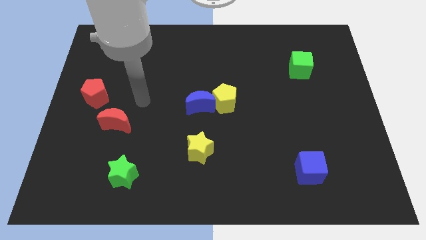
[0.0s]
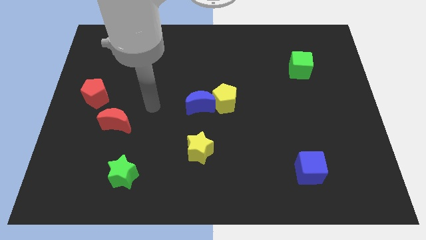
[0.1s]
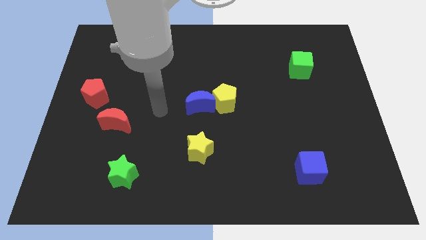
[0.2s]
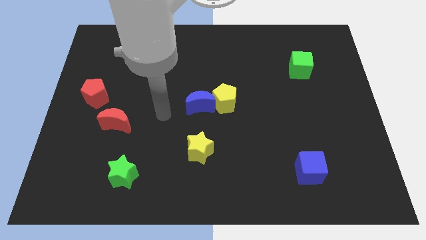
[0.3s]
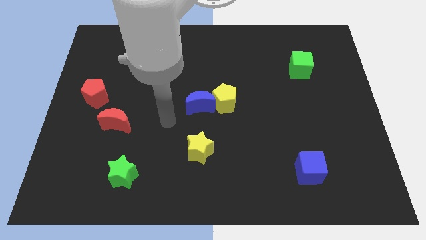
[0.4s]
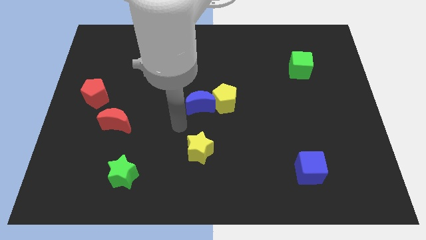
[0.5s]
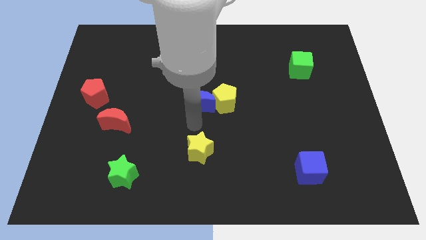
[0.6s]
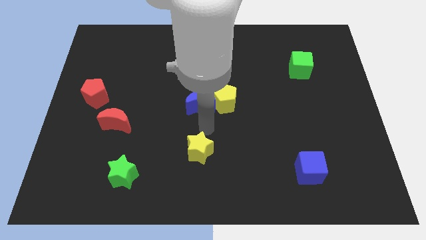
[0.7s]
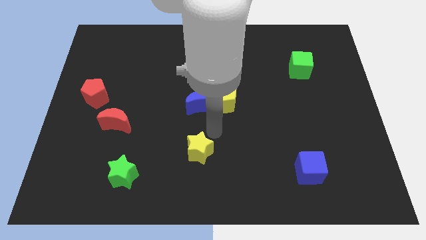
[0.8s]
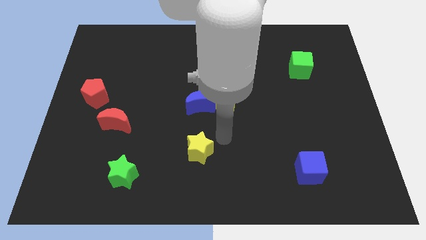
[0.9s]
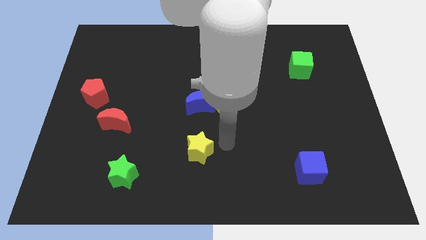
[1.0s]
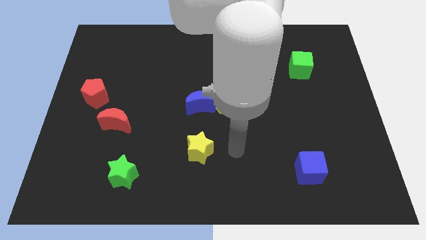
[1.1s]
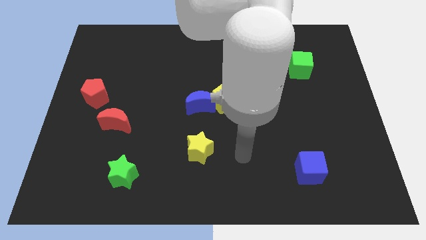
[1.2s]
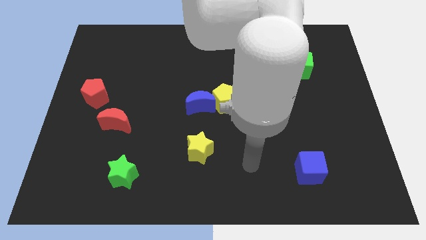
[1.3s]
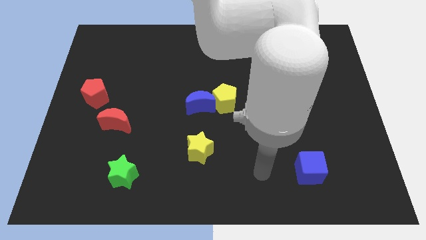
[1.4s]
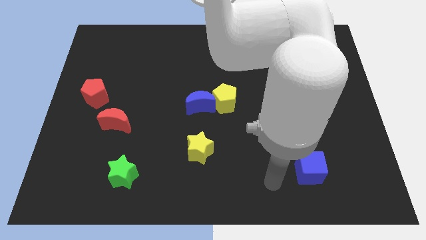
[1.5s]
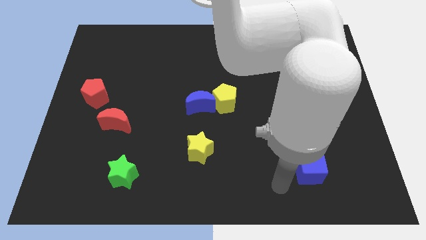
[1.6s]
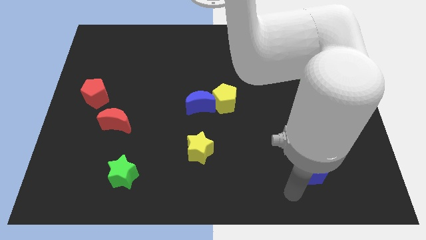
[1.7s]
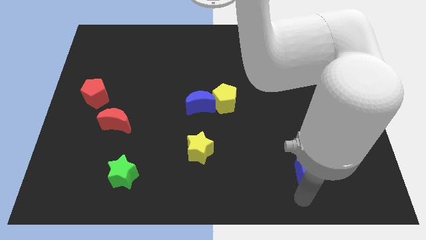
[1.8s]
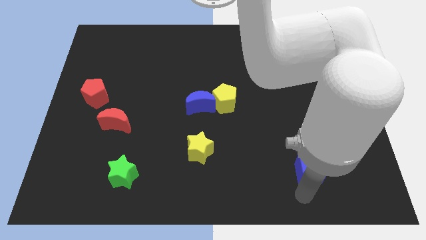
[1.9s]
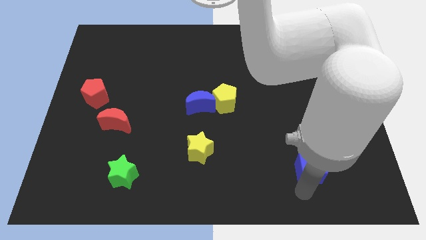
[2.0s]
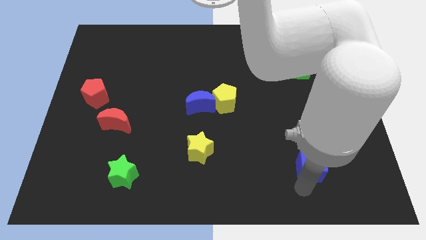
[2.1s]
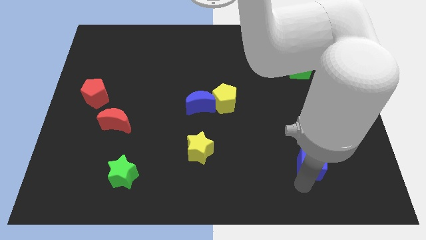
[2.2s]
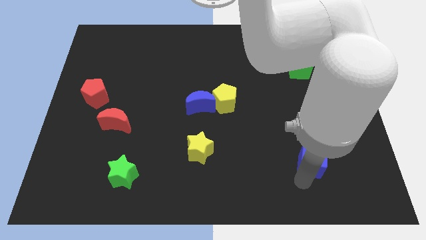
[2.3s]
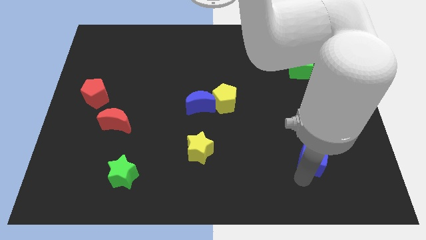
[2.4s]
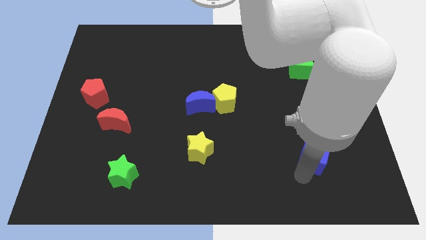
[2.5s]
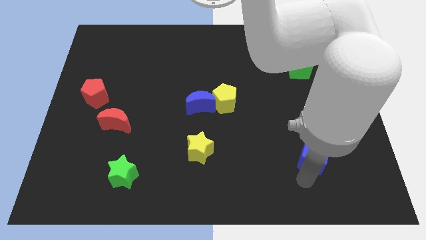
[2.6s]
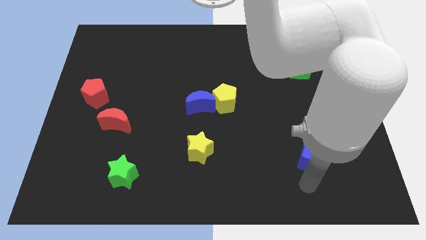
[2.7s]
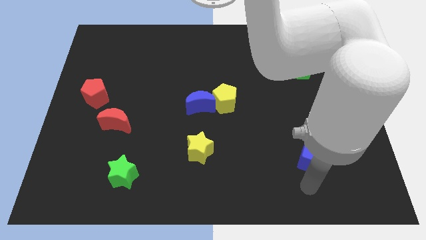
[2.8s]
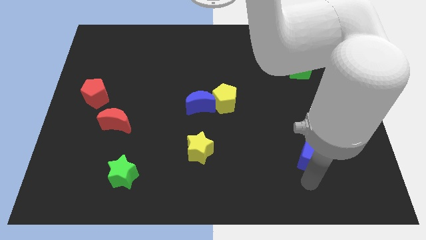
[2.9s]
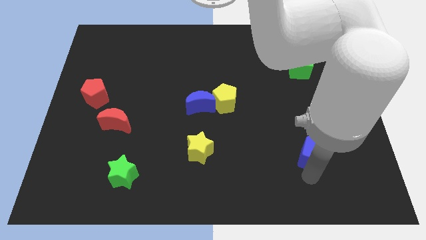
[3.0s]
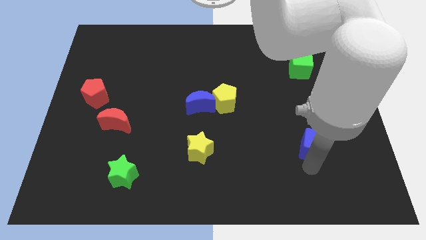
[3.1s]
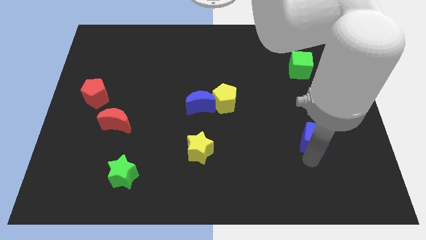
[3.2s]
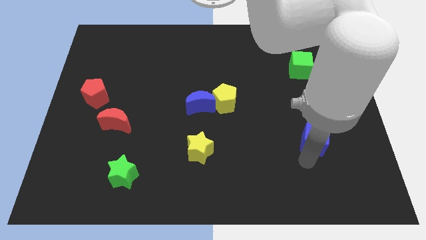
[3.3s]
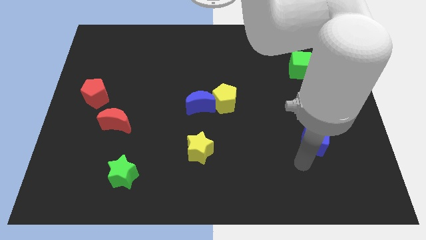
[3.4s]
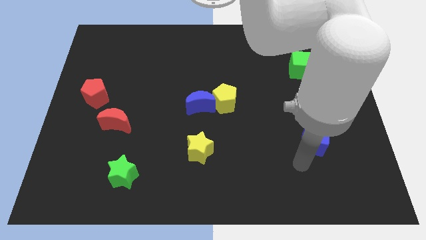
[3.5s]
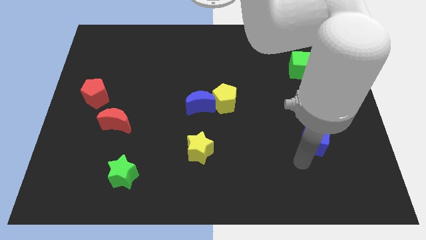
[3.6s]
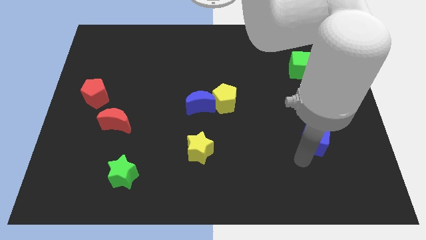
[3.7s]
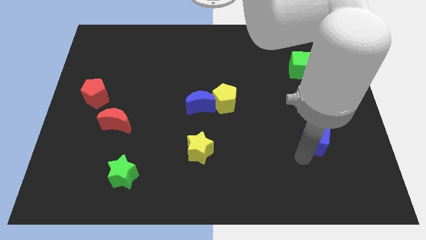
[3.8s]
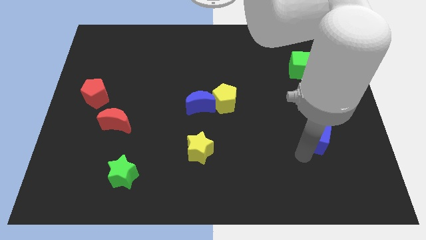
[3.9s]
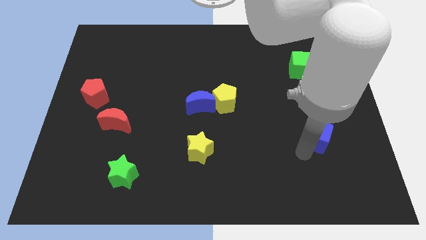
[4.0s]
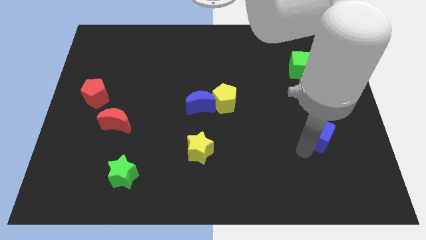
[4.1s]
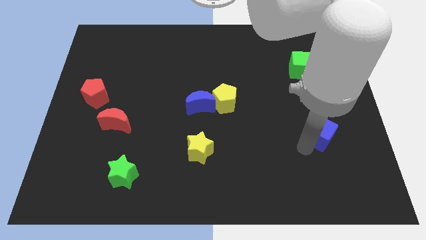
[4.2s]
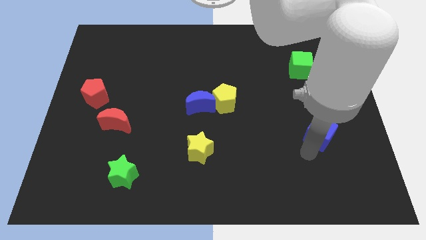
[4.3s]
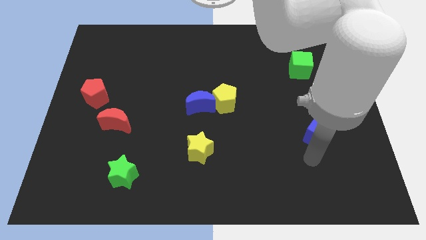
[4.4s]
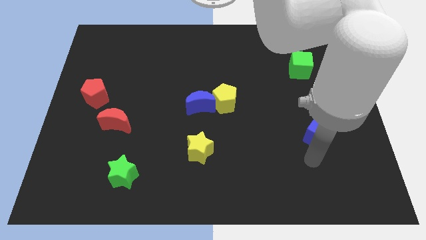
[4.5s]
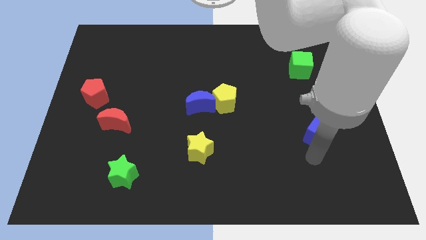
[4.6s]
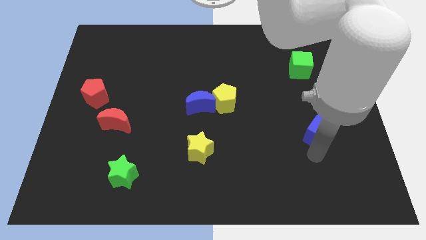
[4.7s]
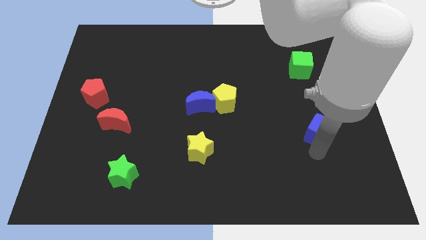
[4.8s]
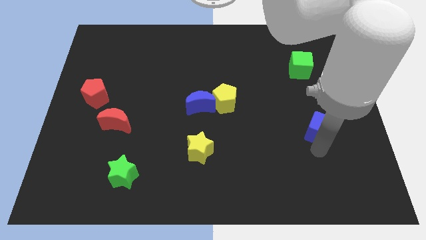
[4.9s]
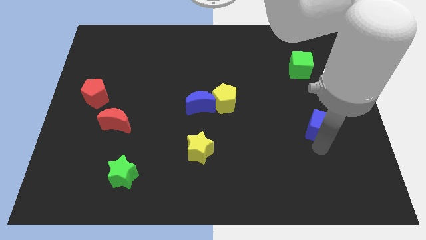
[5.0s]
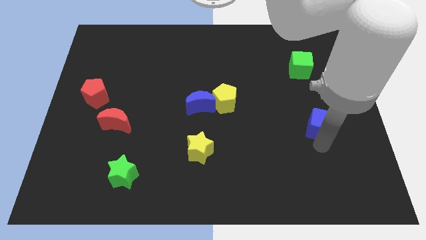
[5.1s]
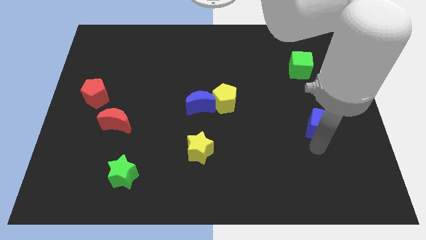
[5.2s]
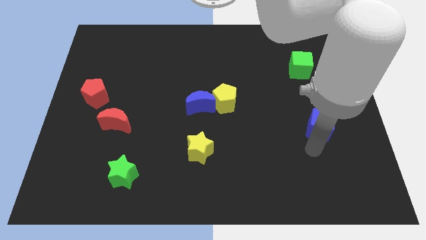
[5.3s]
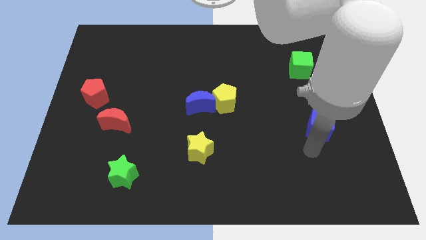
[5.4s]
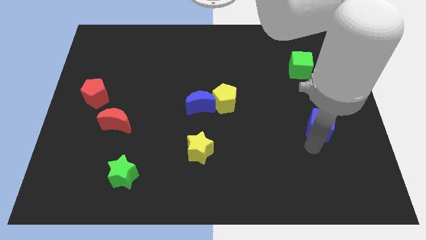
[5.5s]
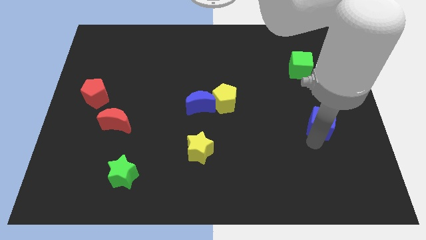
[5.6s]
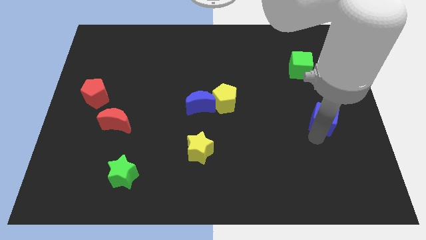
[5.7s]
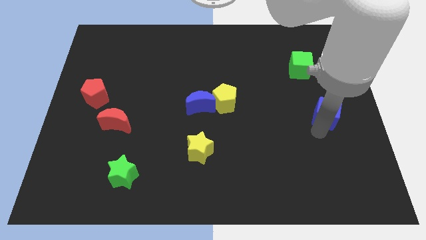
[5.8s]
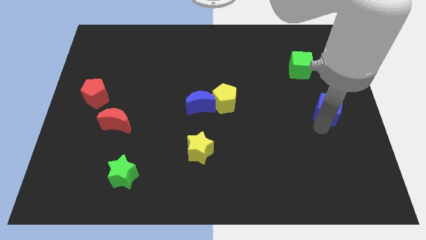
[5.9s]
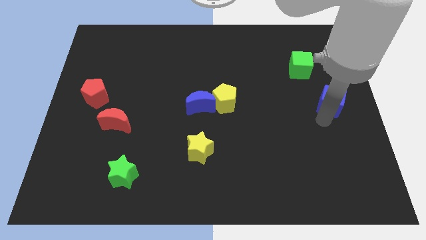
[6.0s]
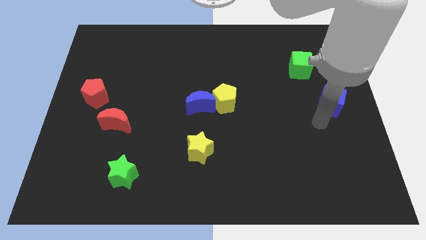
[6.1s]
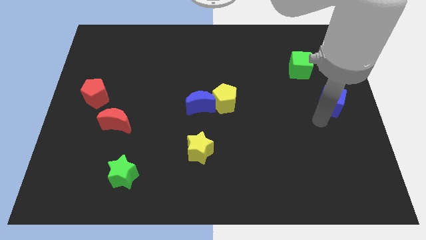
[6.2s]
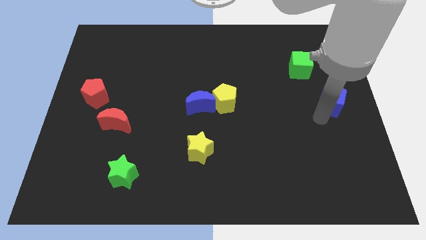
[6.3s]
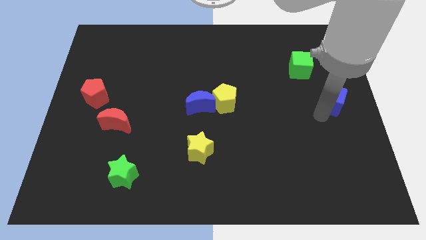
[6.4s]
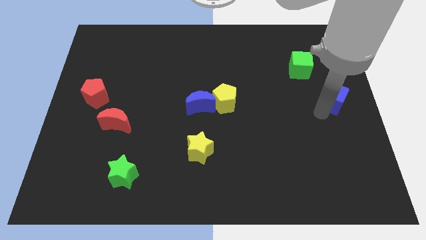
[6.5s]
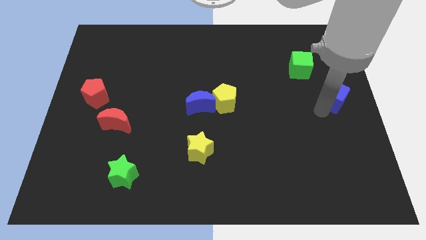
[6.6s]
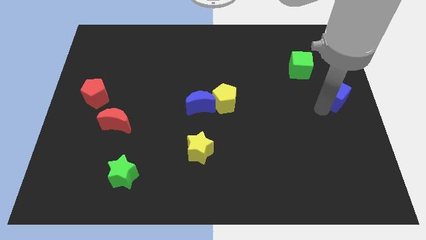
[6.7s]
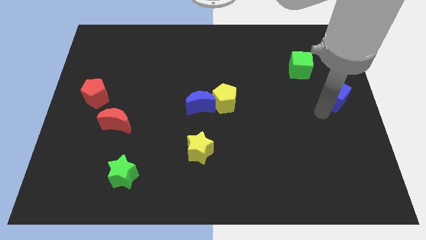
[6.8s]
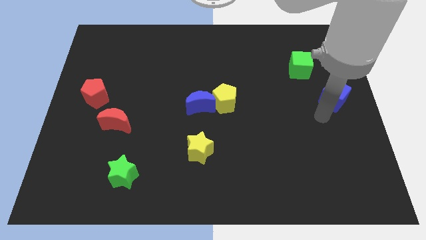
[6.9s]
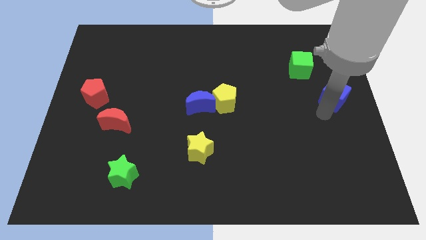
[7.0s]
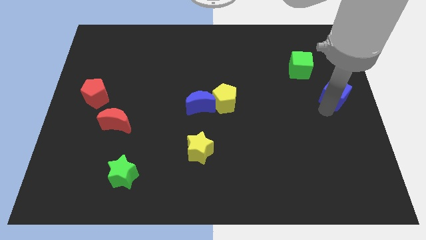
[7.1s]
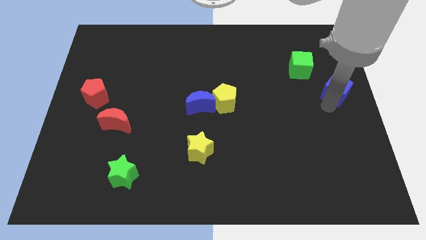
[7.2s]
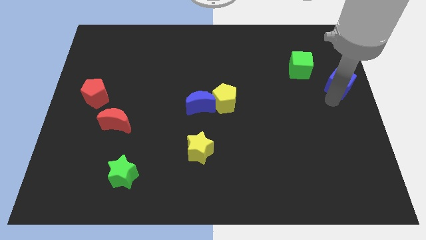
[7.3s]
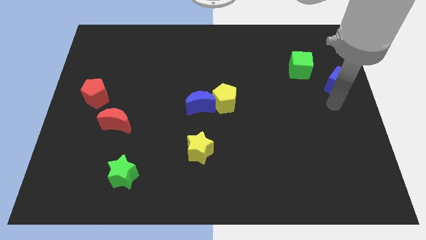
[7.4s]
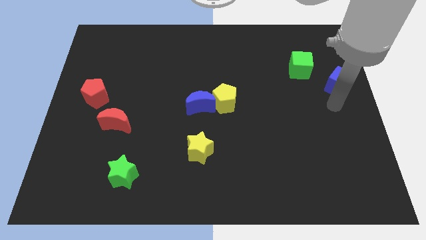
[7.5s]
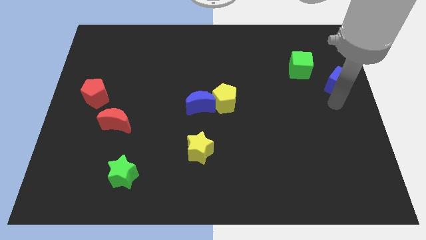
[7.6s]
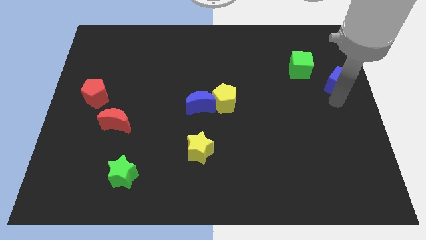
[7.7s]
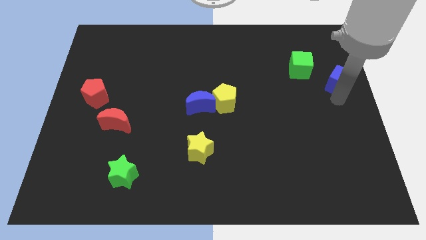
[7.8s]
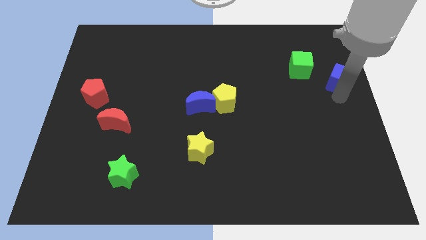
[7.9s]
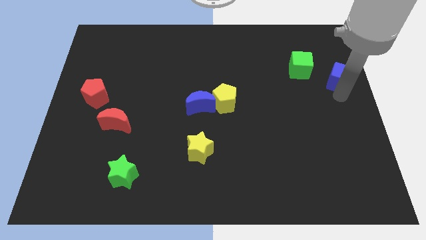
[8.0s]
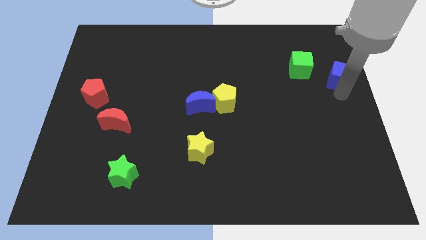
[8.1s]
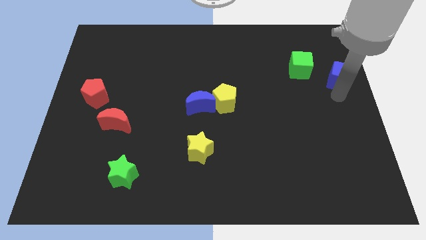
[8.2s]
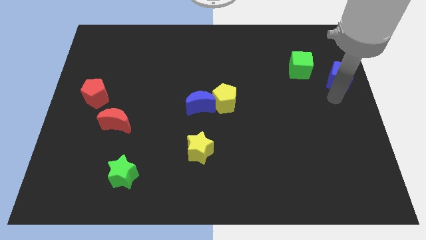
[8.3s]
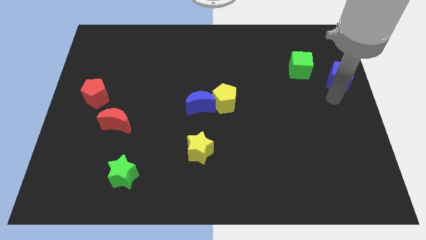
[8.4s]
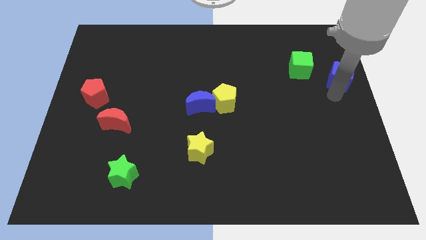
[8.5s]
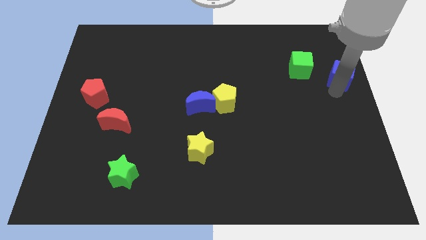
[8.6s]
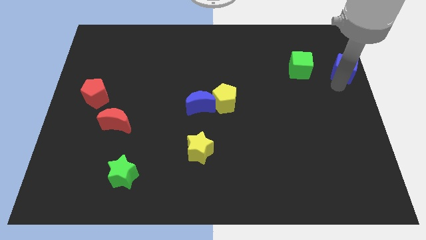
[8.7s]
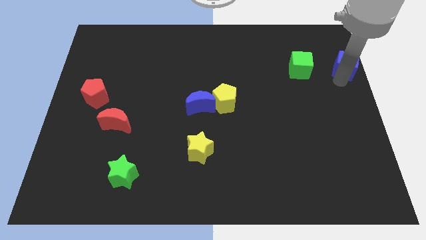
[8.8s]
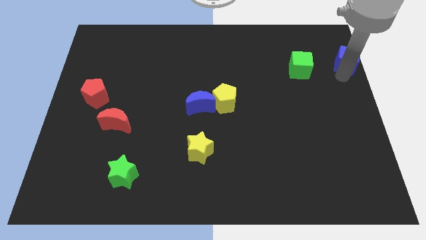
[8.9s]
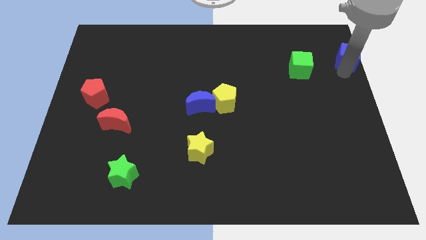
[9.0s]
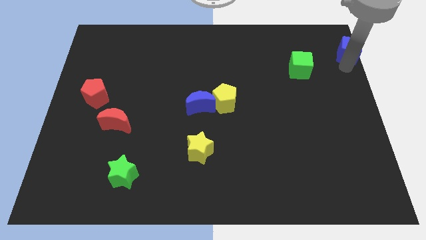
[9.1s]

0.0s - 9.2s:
slide the blue cube to the upper right corner
